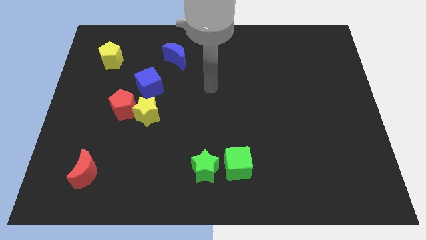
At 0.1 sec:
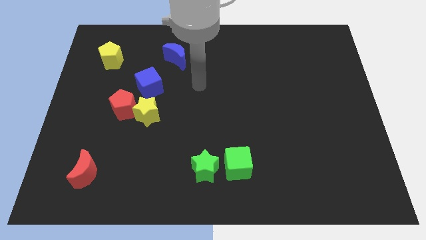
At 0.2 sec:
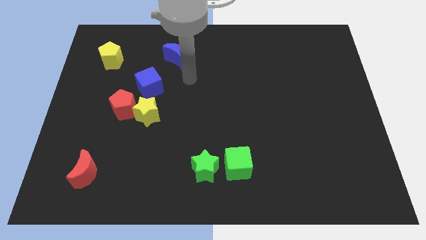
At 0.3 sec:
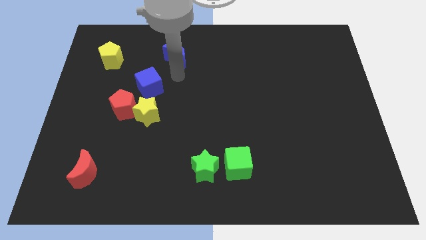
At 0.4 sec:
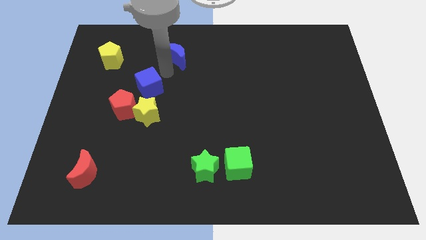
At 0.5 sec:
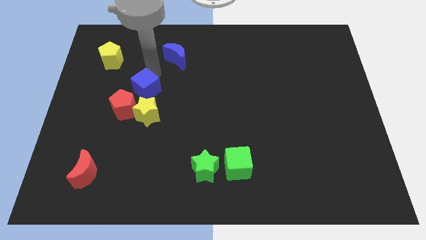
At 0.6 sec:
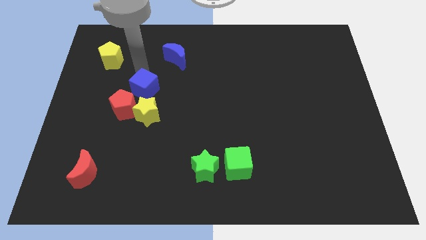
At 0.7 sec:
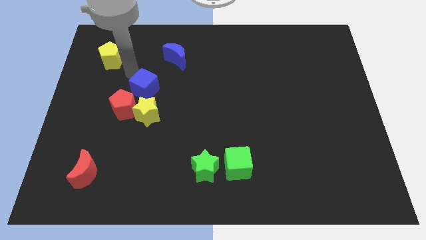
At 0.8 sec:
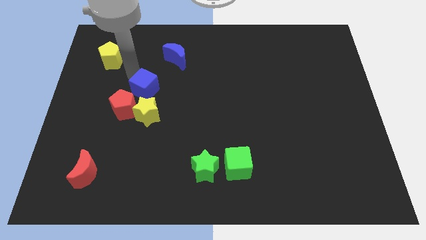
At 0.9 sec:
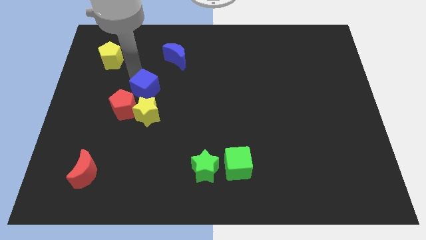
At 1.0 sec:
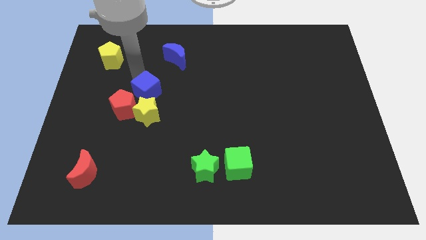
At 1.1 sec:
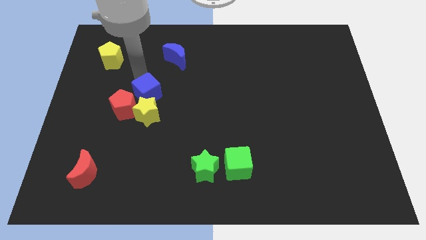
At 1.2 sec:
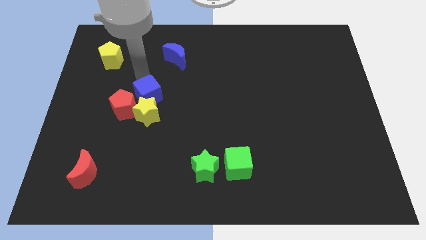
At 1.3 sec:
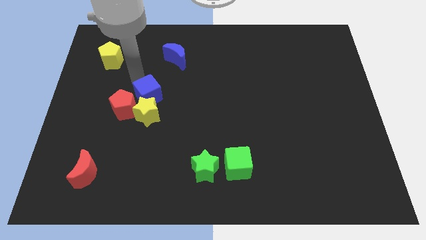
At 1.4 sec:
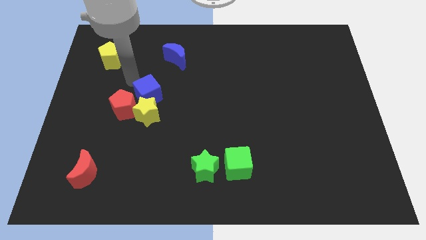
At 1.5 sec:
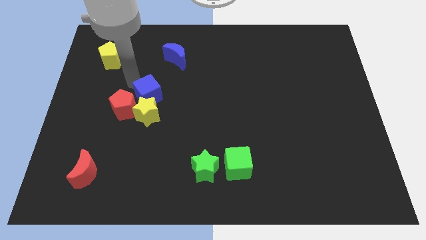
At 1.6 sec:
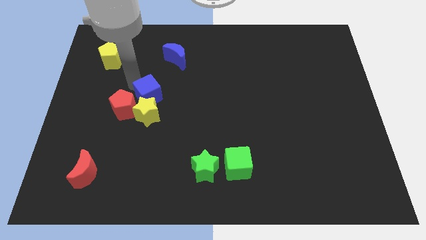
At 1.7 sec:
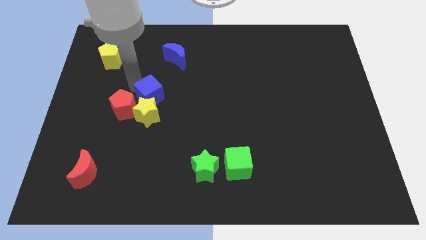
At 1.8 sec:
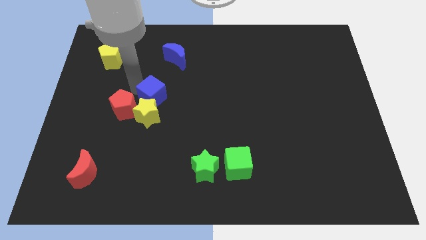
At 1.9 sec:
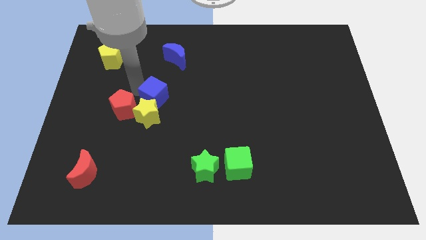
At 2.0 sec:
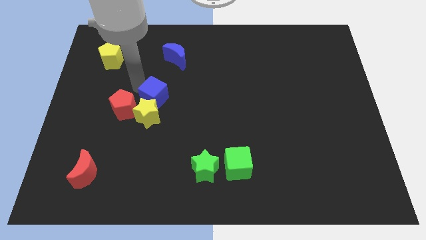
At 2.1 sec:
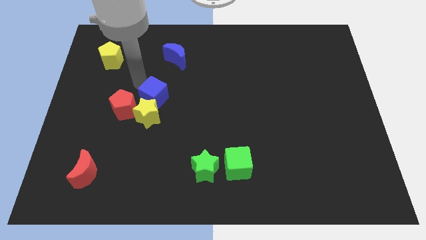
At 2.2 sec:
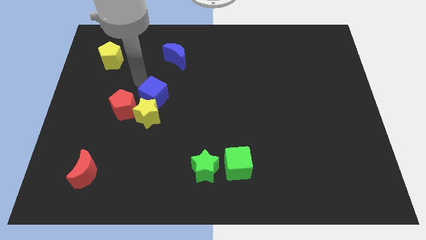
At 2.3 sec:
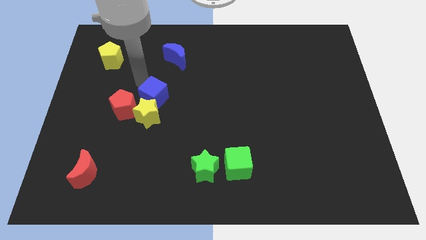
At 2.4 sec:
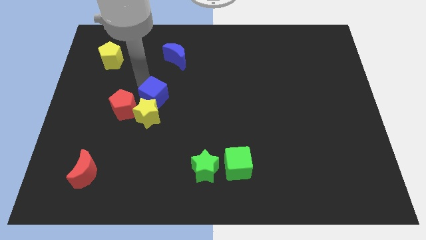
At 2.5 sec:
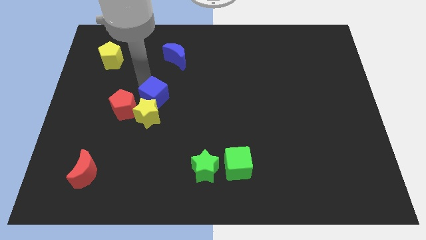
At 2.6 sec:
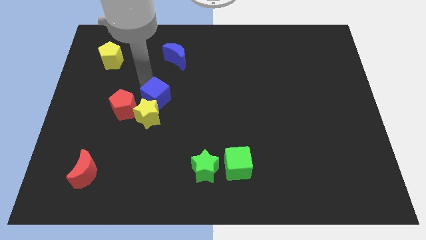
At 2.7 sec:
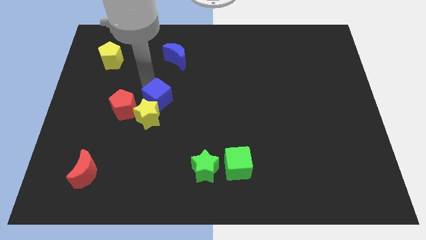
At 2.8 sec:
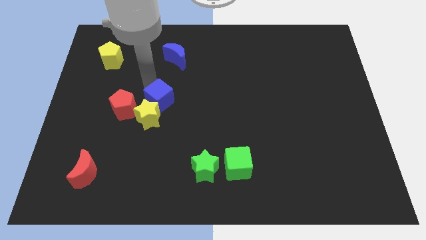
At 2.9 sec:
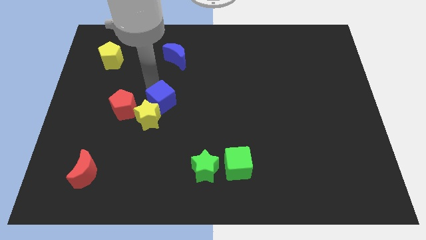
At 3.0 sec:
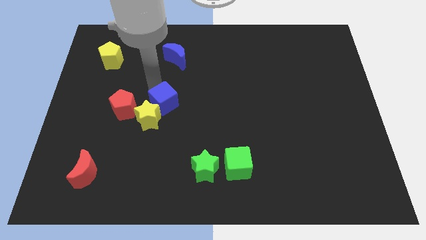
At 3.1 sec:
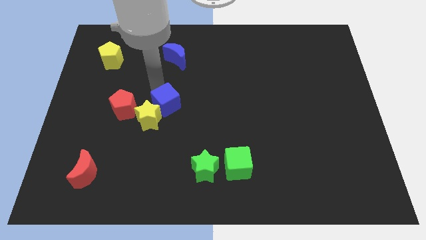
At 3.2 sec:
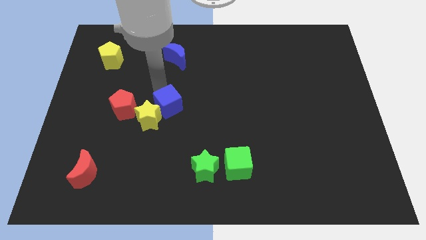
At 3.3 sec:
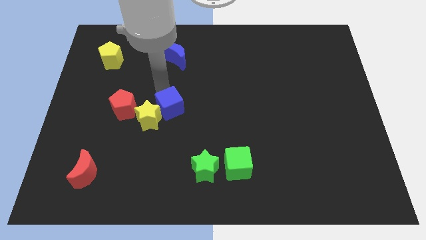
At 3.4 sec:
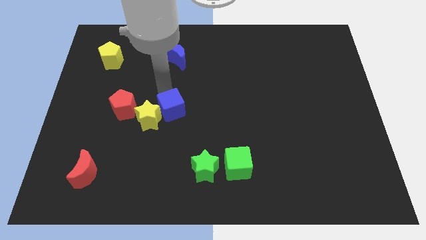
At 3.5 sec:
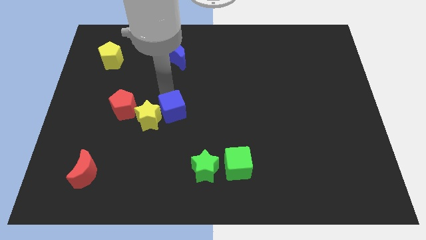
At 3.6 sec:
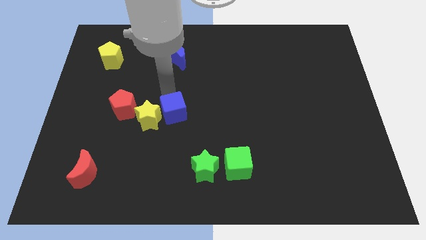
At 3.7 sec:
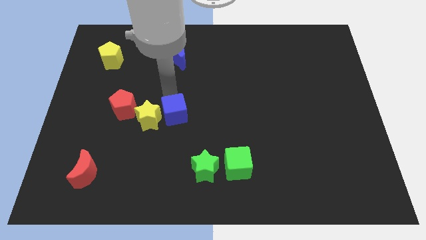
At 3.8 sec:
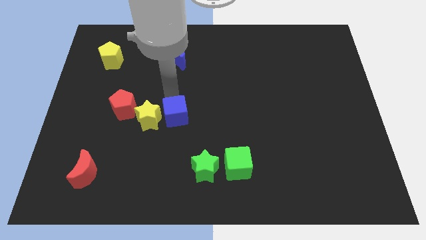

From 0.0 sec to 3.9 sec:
slightly slide the blue cube downwards

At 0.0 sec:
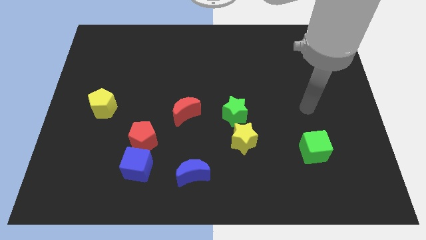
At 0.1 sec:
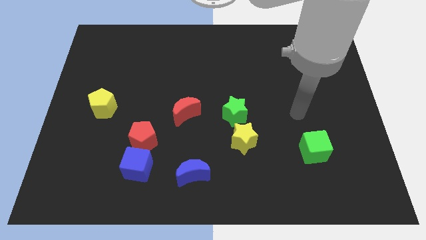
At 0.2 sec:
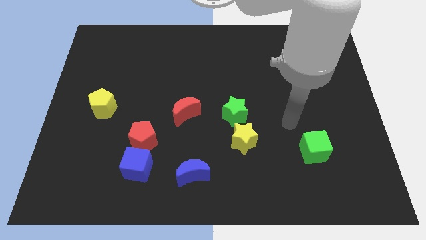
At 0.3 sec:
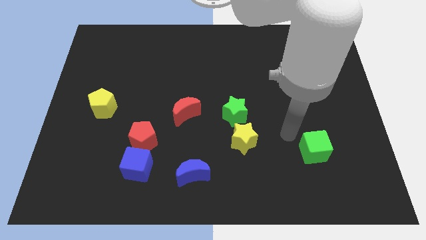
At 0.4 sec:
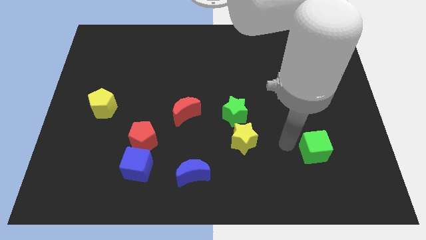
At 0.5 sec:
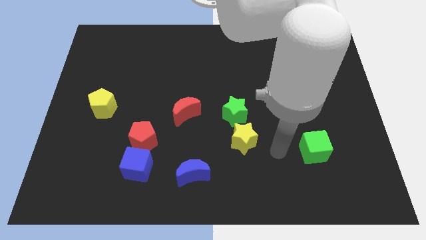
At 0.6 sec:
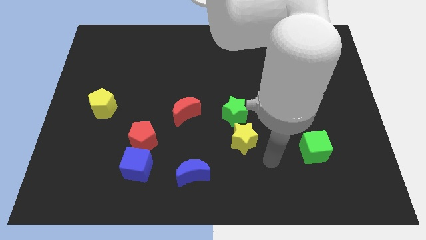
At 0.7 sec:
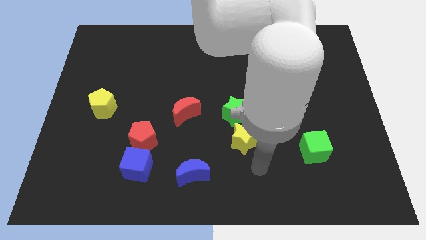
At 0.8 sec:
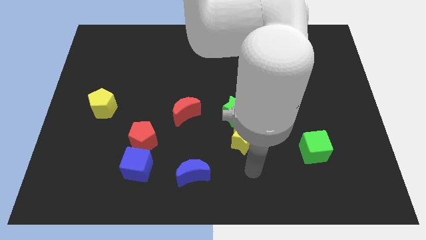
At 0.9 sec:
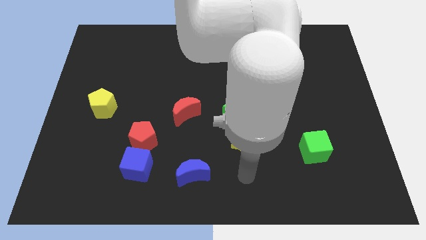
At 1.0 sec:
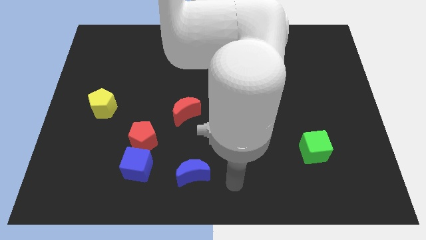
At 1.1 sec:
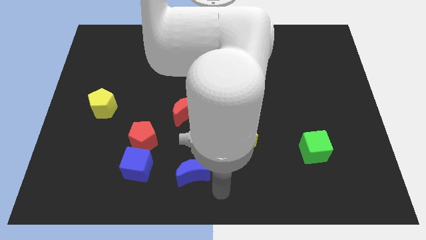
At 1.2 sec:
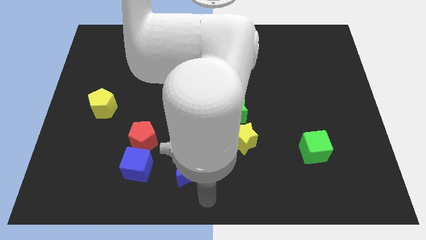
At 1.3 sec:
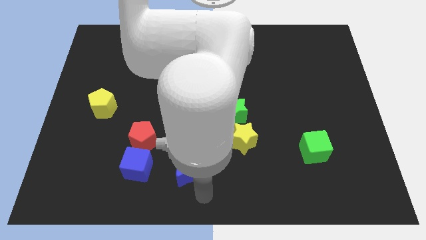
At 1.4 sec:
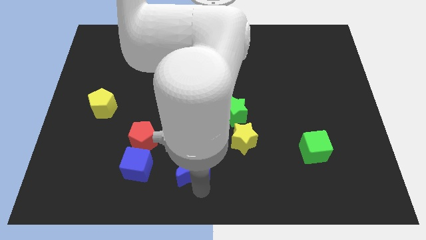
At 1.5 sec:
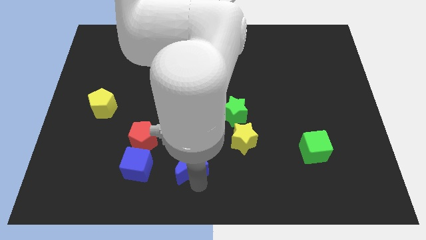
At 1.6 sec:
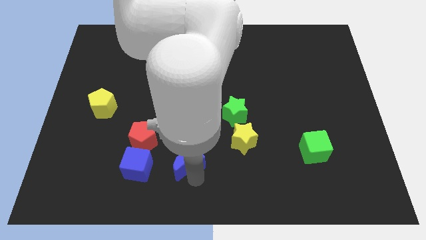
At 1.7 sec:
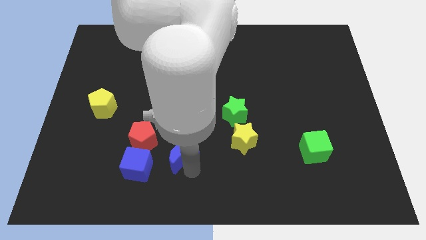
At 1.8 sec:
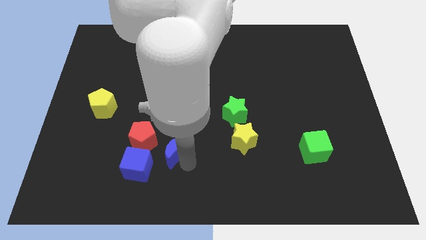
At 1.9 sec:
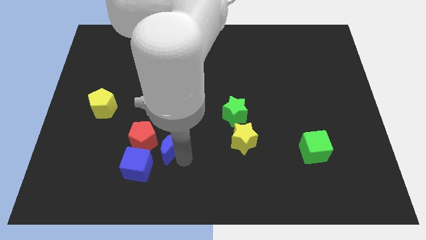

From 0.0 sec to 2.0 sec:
slightly move the blue moon up and to the left diagonally

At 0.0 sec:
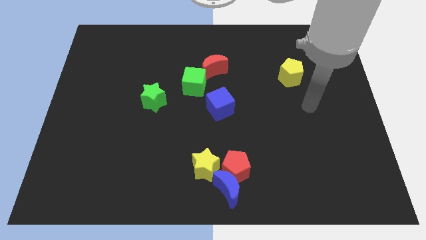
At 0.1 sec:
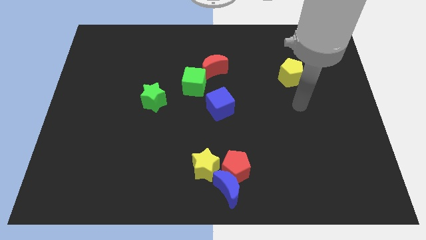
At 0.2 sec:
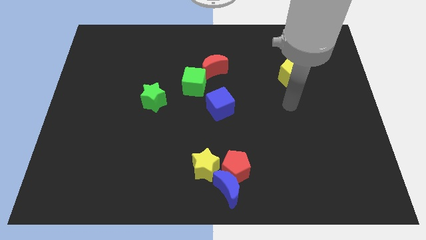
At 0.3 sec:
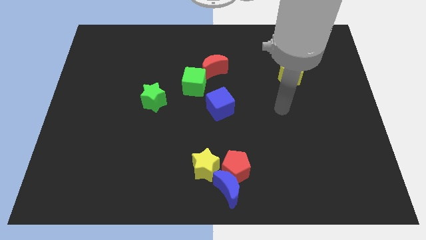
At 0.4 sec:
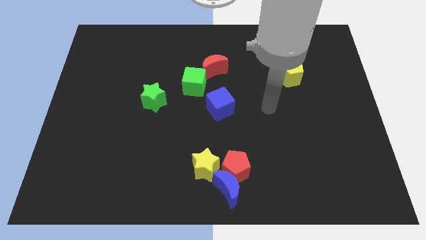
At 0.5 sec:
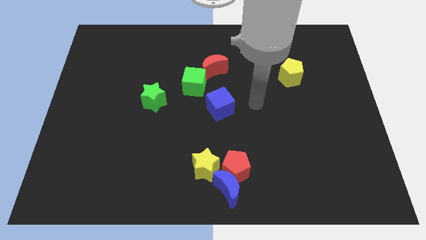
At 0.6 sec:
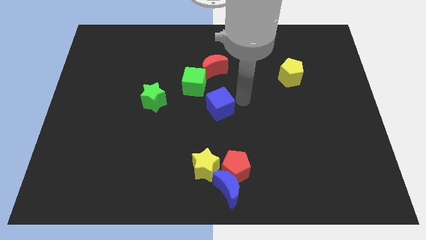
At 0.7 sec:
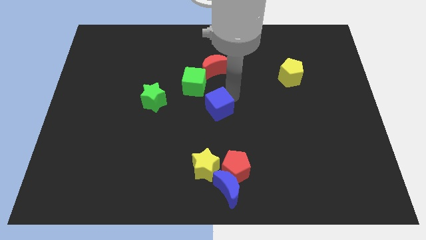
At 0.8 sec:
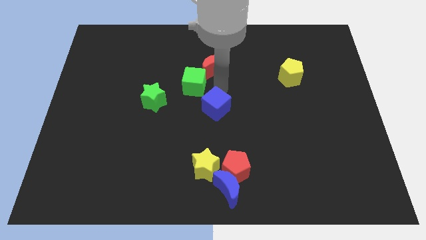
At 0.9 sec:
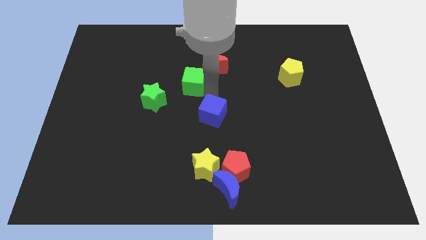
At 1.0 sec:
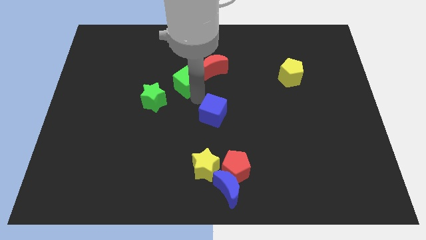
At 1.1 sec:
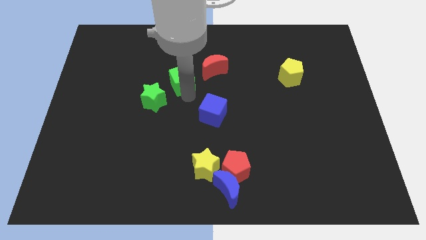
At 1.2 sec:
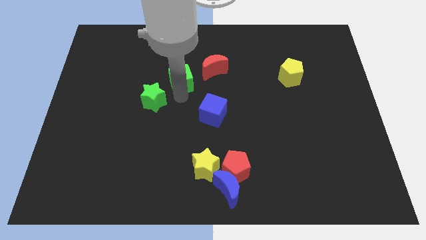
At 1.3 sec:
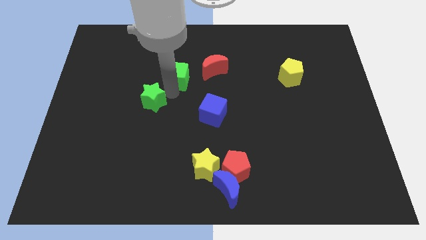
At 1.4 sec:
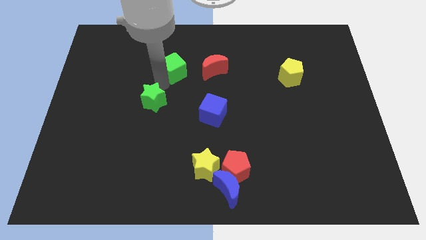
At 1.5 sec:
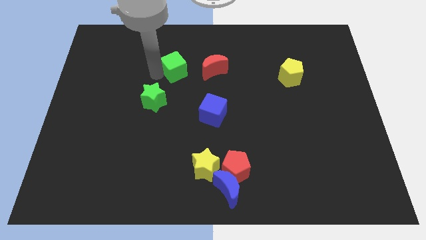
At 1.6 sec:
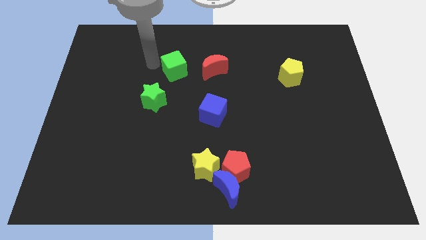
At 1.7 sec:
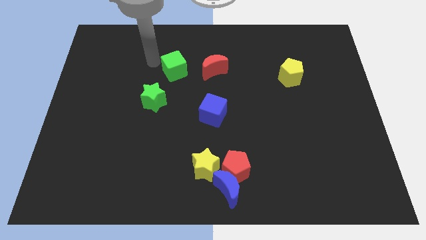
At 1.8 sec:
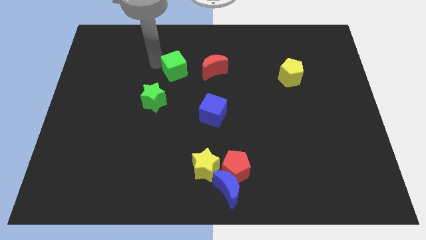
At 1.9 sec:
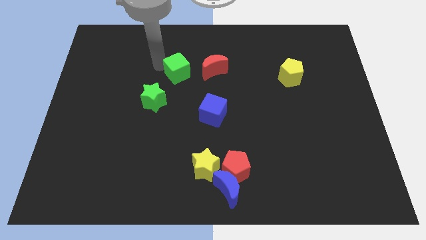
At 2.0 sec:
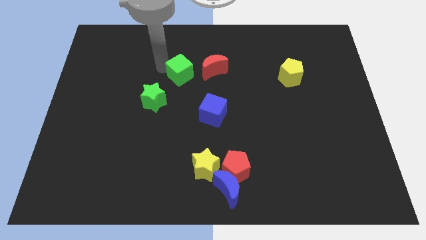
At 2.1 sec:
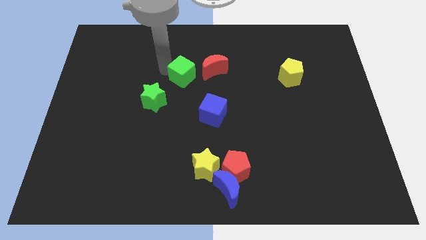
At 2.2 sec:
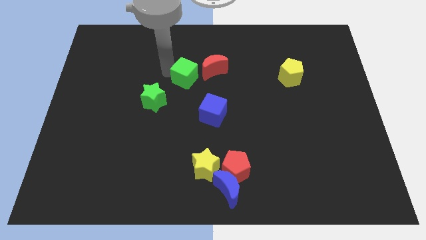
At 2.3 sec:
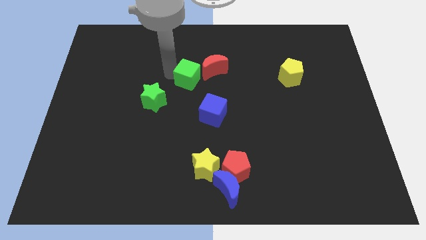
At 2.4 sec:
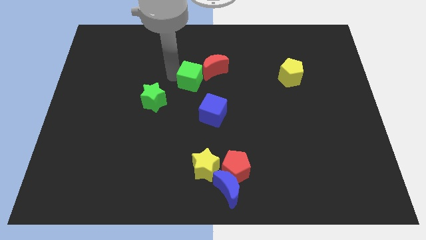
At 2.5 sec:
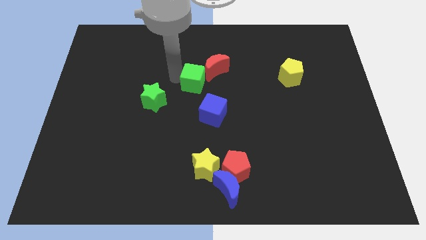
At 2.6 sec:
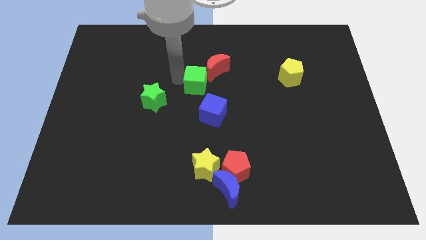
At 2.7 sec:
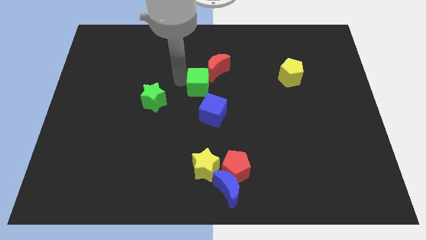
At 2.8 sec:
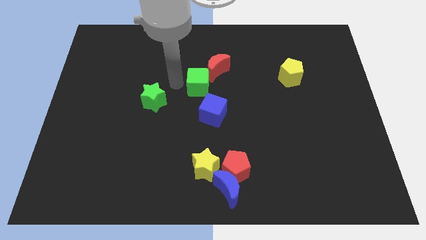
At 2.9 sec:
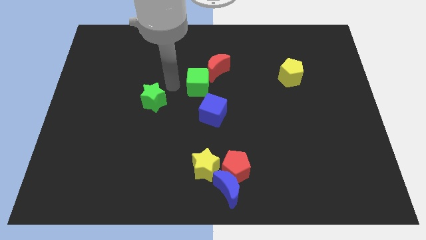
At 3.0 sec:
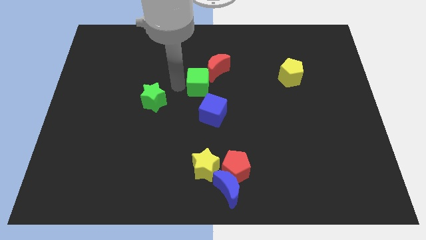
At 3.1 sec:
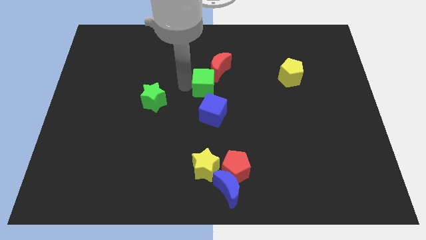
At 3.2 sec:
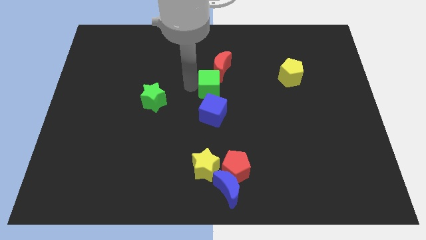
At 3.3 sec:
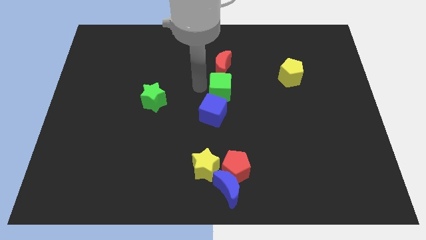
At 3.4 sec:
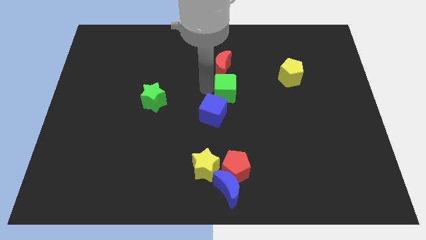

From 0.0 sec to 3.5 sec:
slightly slide the green cube to the right
